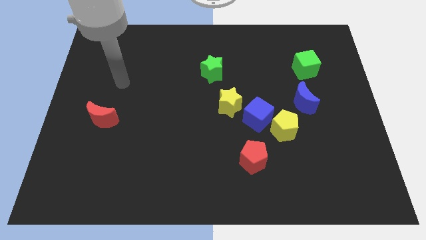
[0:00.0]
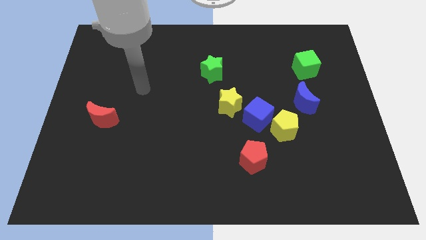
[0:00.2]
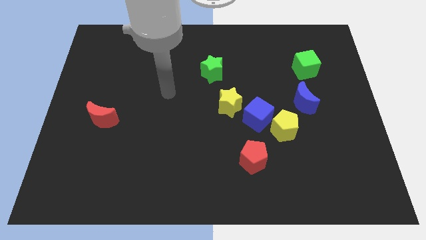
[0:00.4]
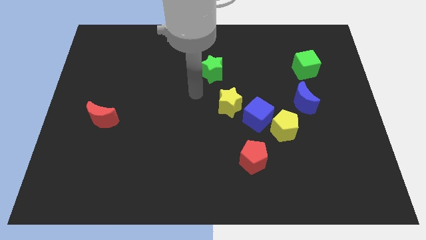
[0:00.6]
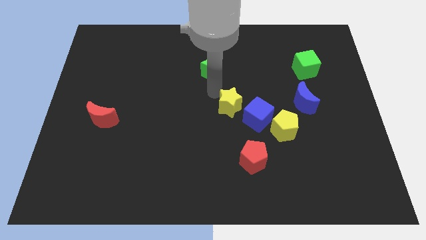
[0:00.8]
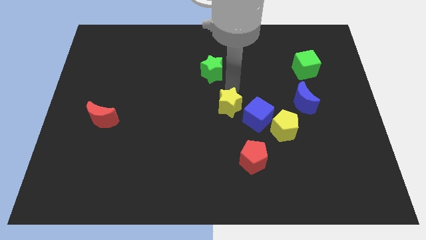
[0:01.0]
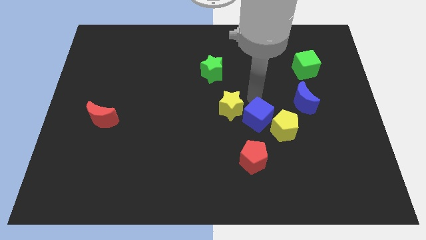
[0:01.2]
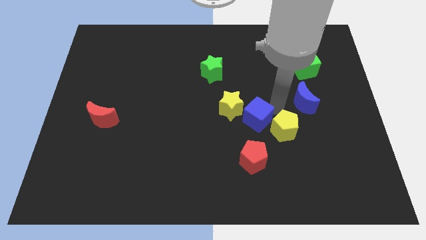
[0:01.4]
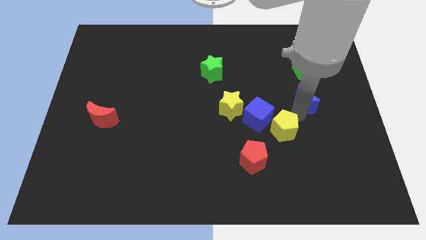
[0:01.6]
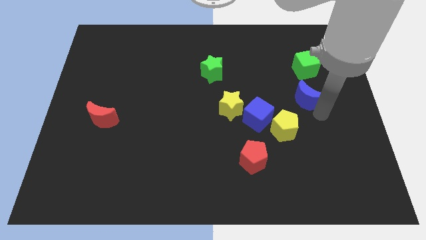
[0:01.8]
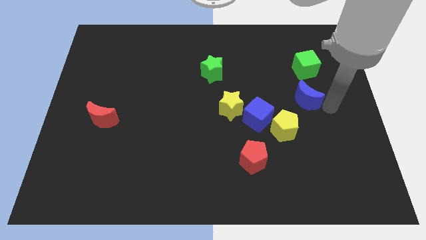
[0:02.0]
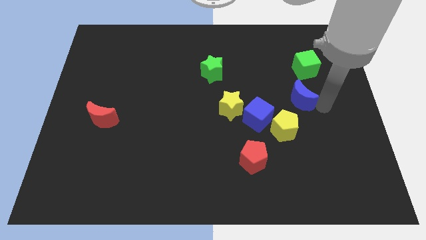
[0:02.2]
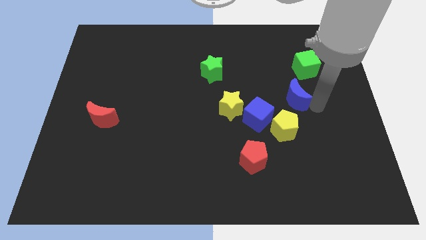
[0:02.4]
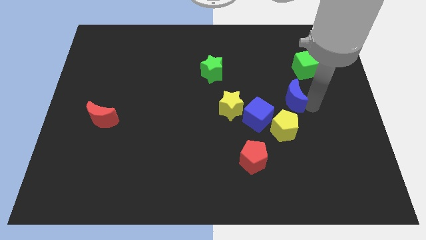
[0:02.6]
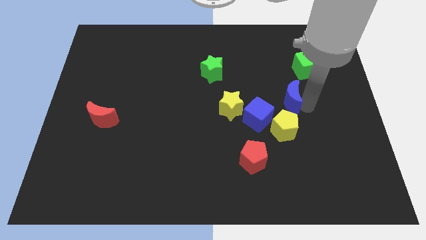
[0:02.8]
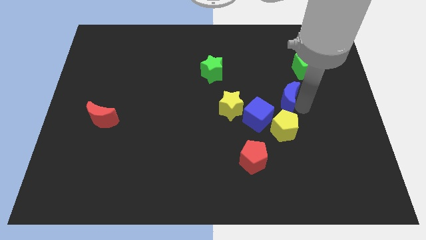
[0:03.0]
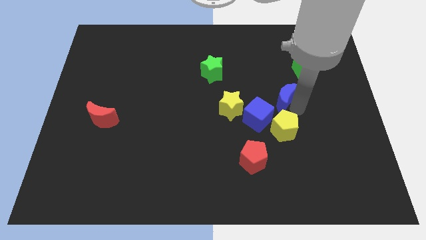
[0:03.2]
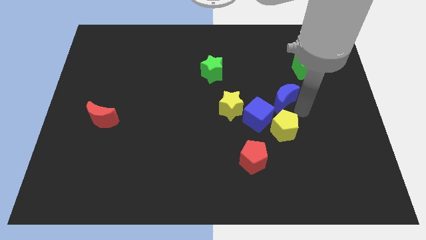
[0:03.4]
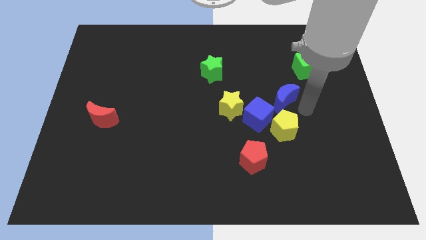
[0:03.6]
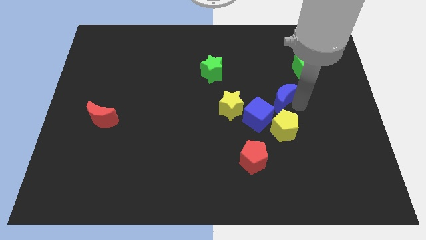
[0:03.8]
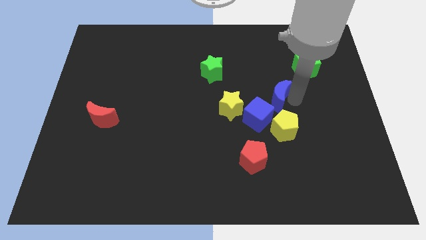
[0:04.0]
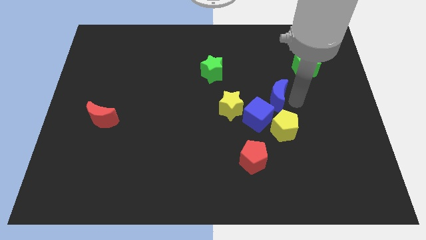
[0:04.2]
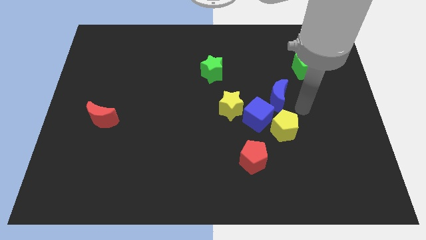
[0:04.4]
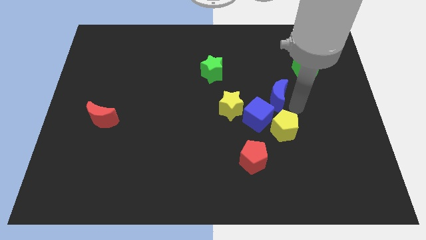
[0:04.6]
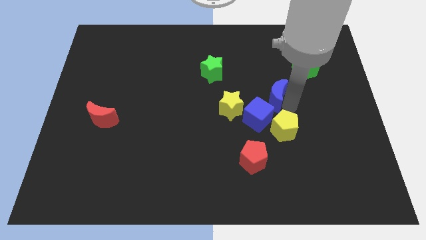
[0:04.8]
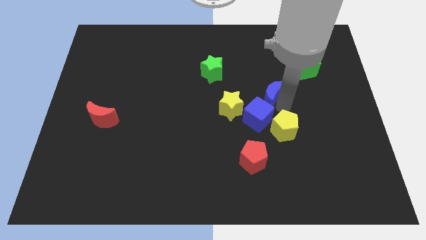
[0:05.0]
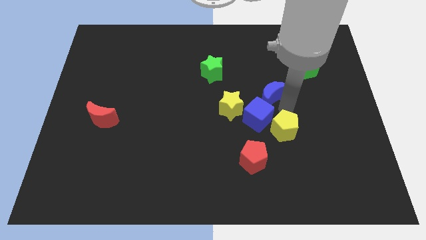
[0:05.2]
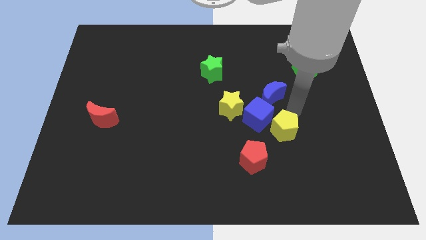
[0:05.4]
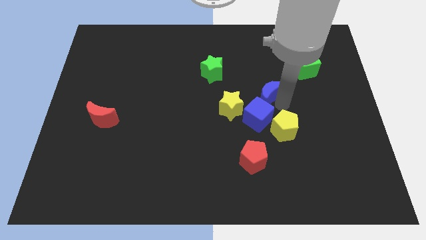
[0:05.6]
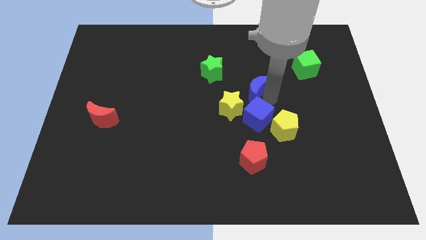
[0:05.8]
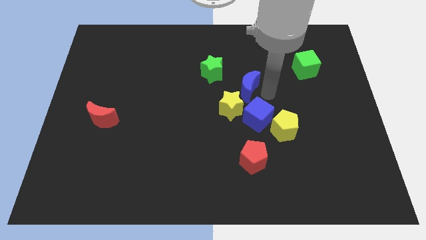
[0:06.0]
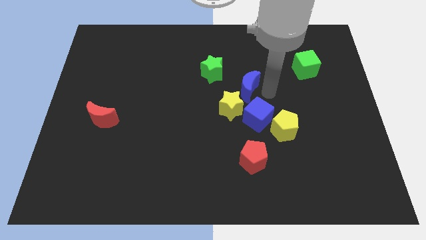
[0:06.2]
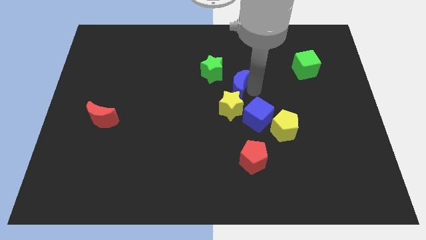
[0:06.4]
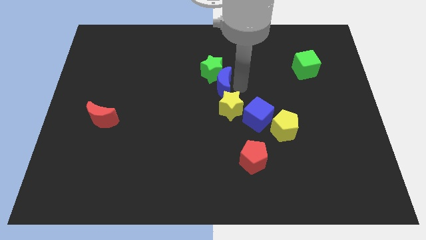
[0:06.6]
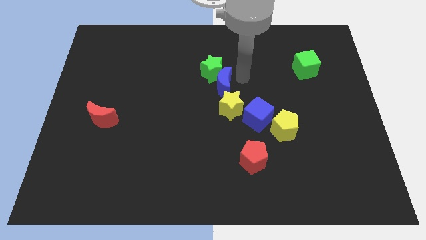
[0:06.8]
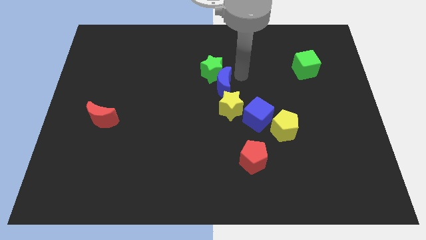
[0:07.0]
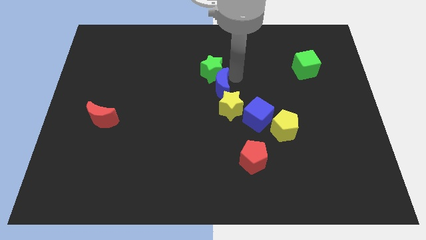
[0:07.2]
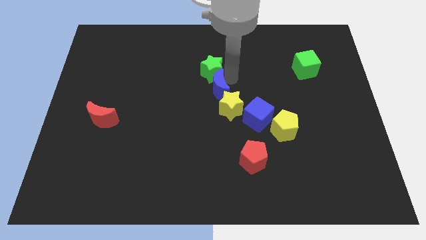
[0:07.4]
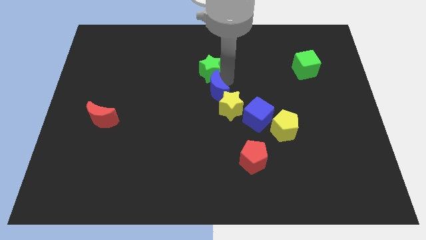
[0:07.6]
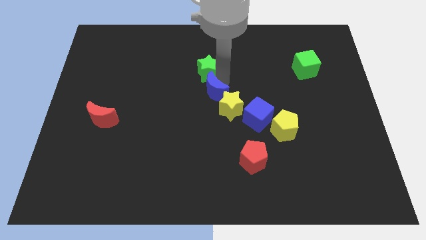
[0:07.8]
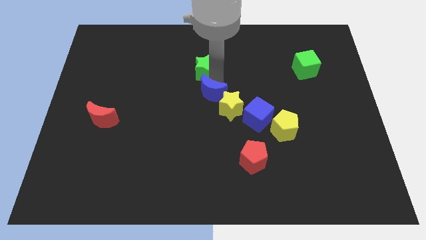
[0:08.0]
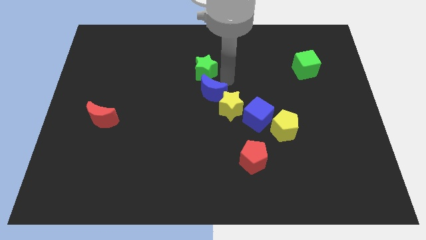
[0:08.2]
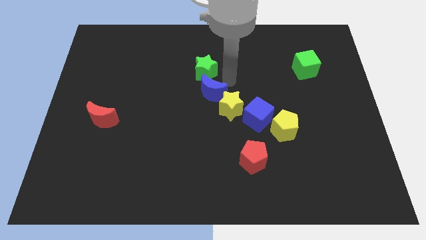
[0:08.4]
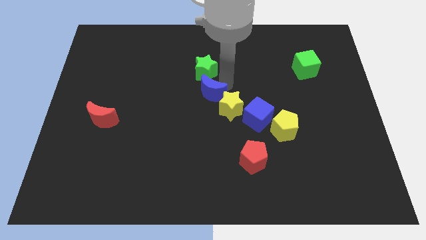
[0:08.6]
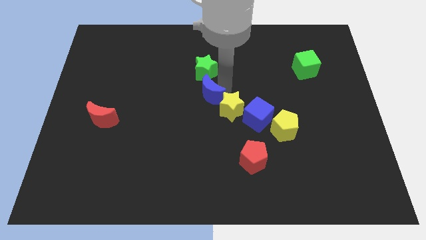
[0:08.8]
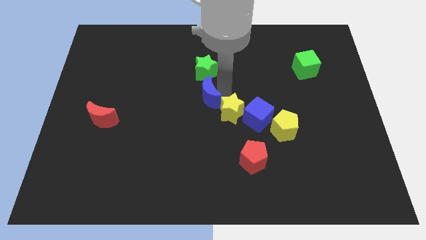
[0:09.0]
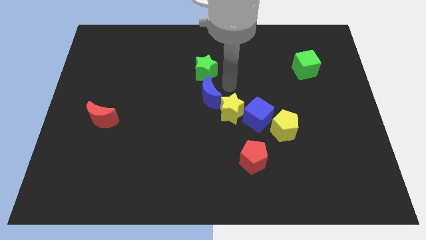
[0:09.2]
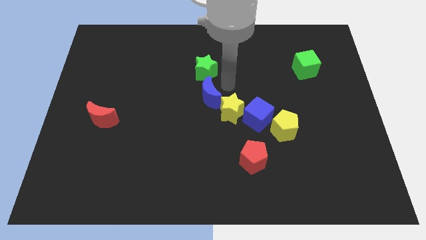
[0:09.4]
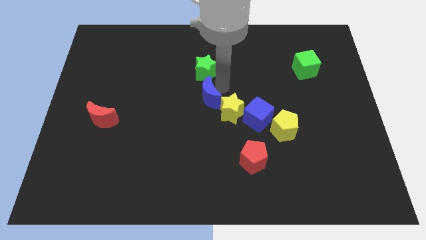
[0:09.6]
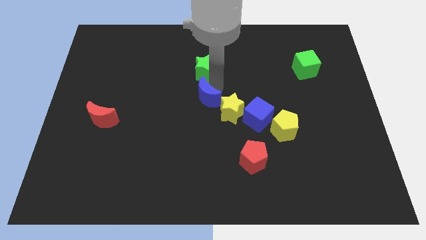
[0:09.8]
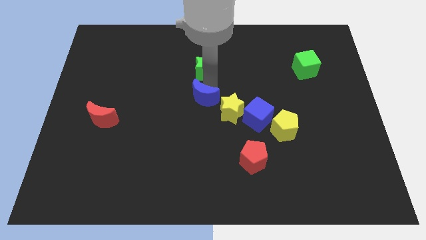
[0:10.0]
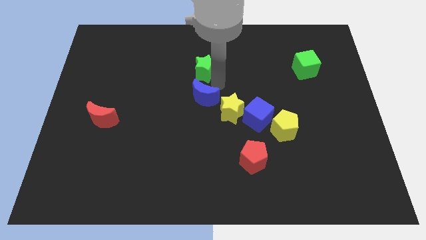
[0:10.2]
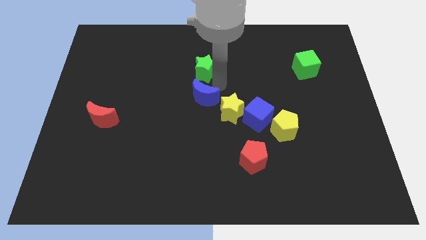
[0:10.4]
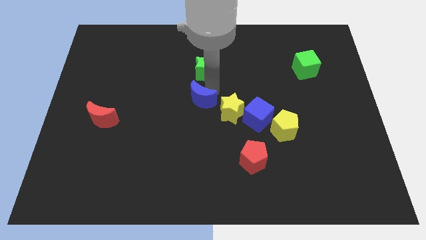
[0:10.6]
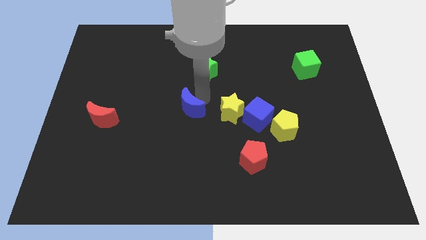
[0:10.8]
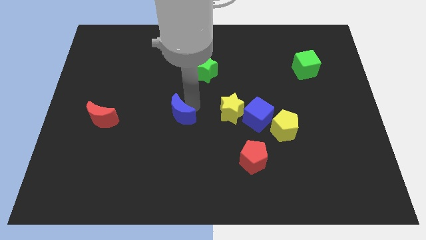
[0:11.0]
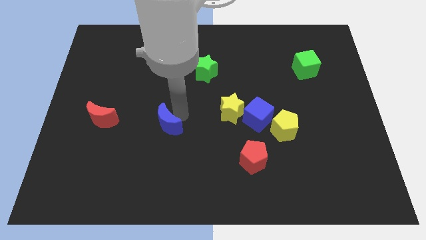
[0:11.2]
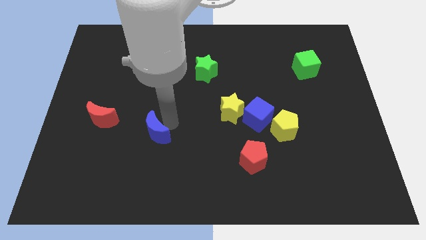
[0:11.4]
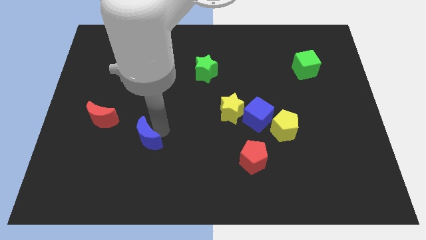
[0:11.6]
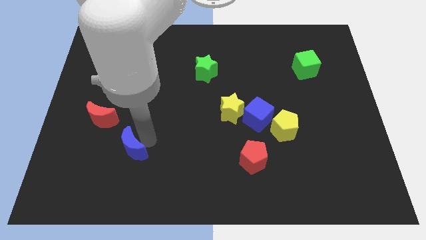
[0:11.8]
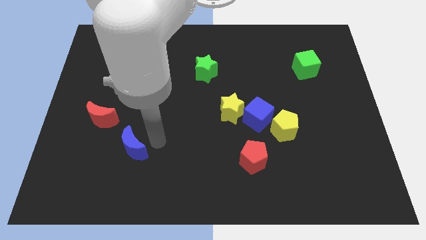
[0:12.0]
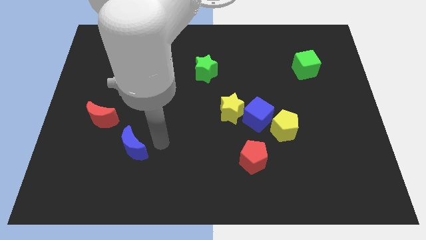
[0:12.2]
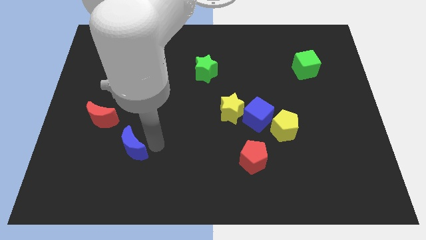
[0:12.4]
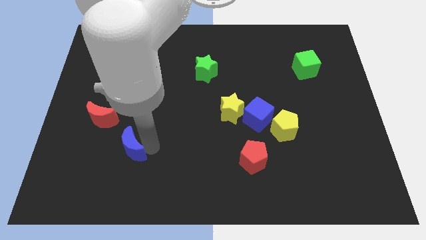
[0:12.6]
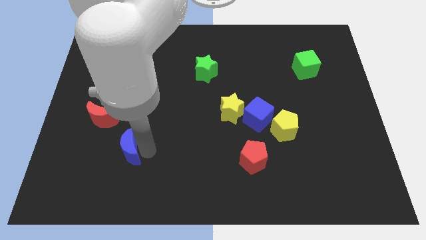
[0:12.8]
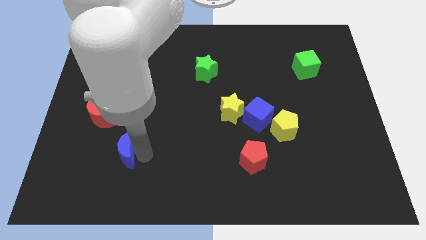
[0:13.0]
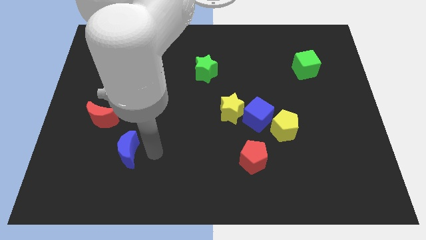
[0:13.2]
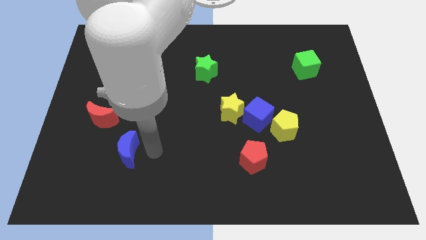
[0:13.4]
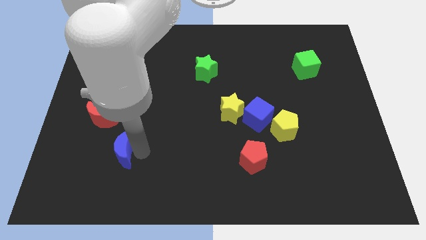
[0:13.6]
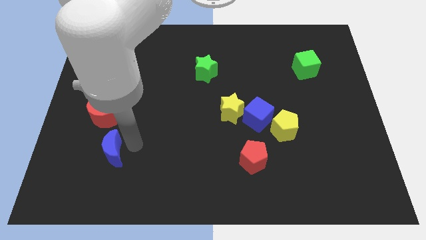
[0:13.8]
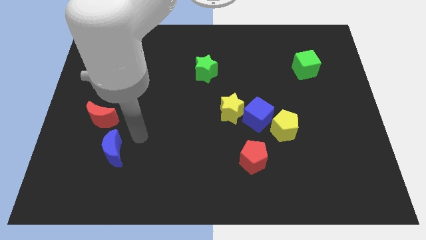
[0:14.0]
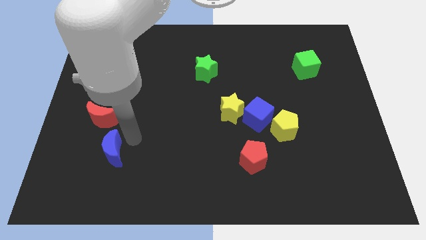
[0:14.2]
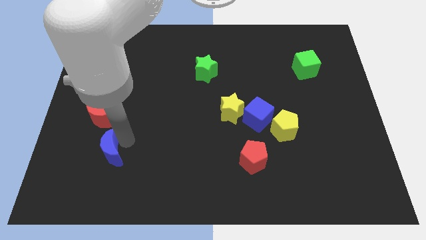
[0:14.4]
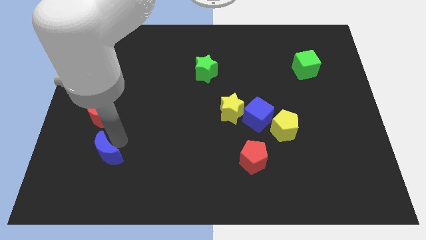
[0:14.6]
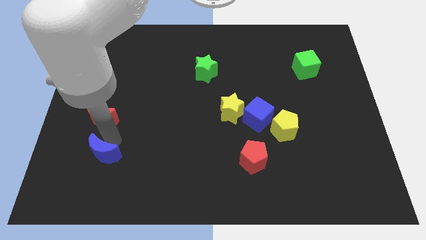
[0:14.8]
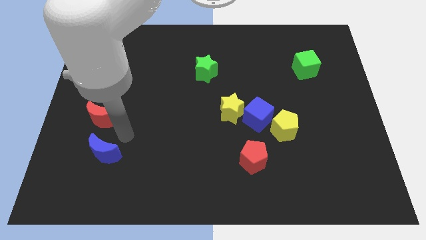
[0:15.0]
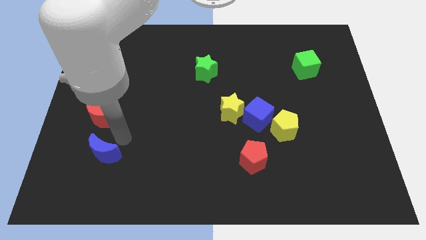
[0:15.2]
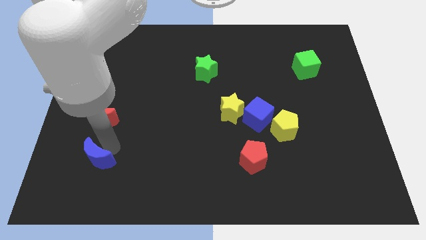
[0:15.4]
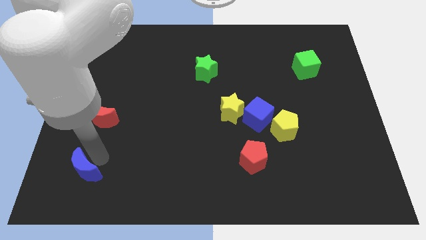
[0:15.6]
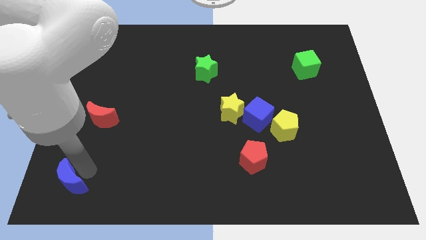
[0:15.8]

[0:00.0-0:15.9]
put the blue moon to the lower left corner
